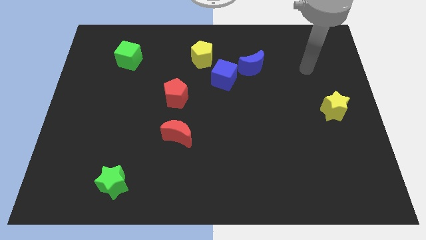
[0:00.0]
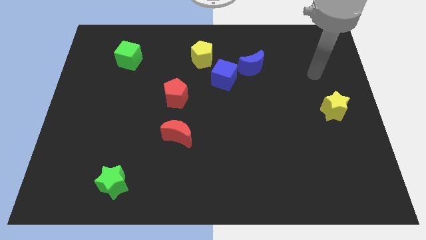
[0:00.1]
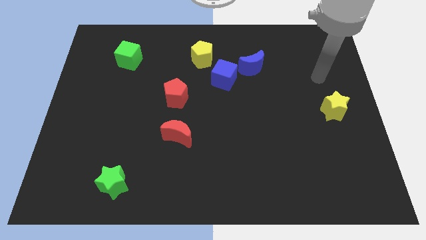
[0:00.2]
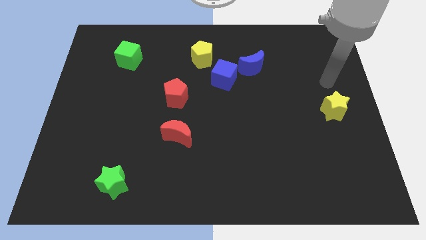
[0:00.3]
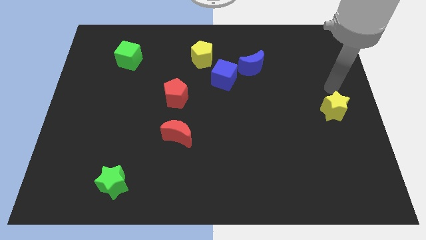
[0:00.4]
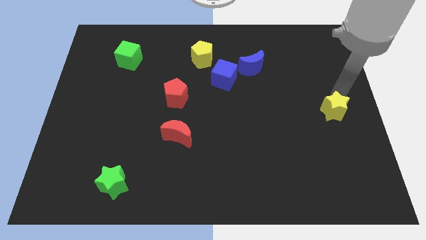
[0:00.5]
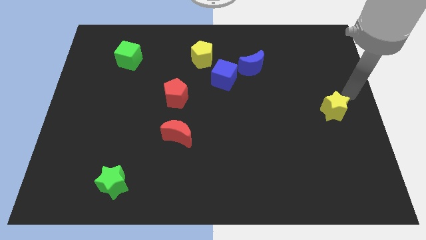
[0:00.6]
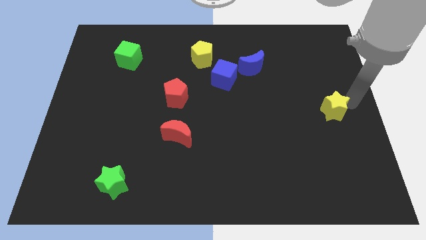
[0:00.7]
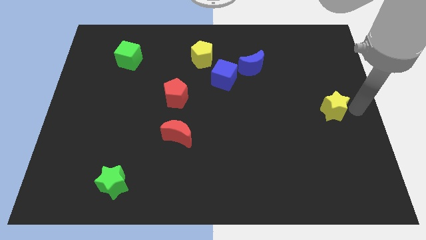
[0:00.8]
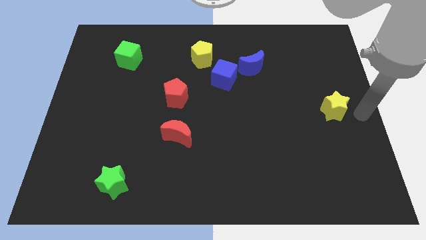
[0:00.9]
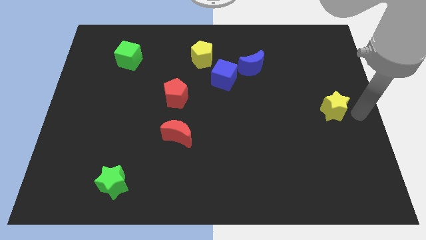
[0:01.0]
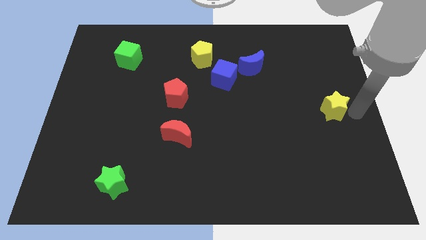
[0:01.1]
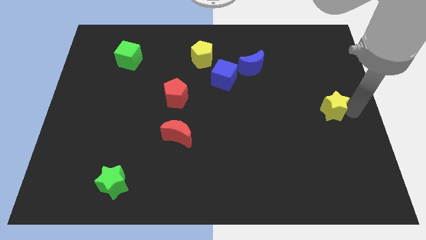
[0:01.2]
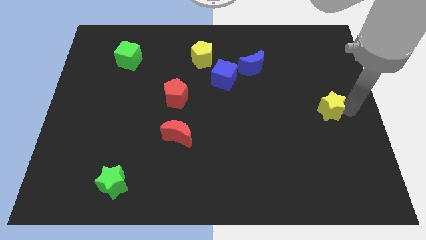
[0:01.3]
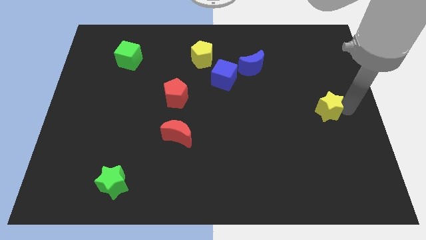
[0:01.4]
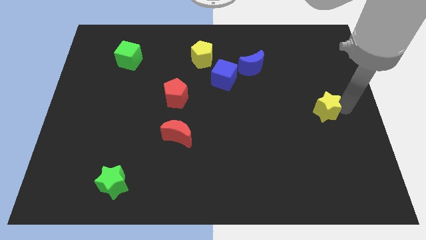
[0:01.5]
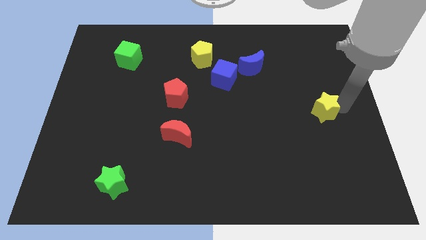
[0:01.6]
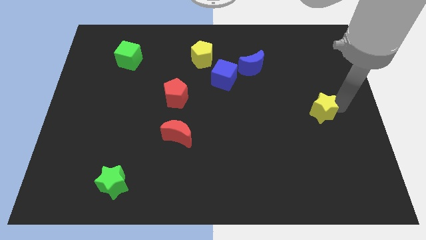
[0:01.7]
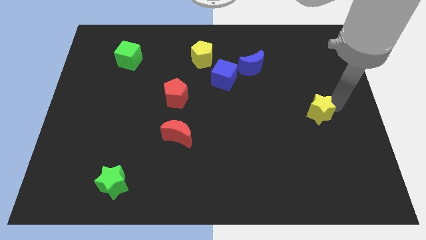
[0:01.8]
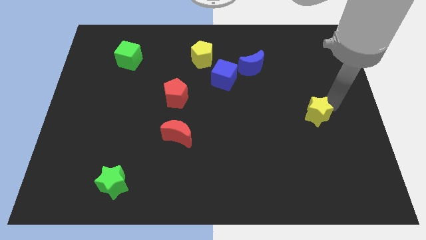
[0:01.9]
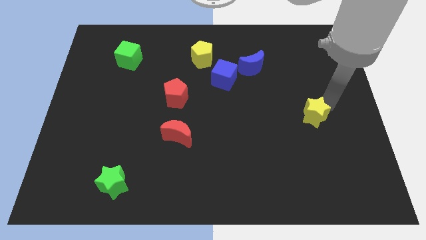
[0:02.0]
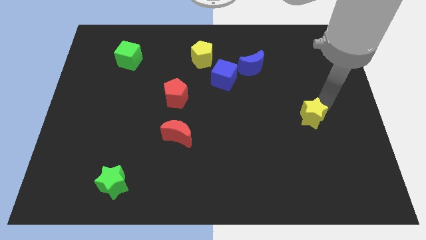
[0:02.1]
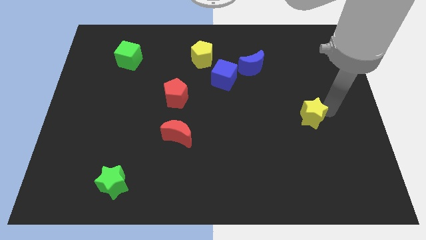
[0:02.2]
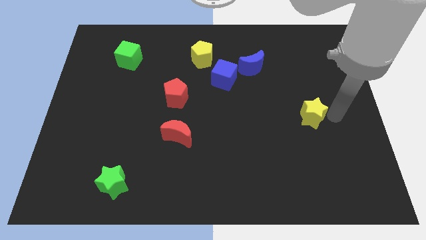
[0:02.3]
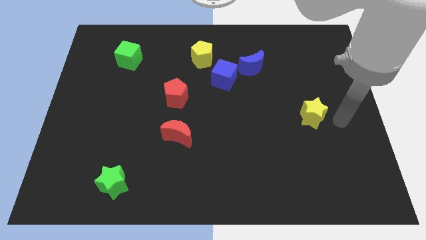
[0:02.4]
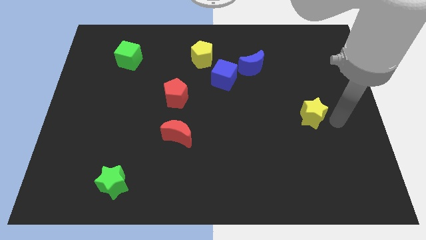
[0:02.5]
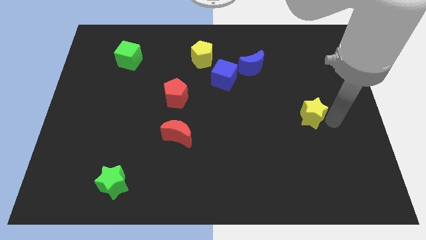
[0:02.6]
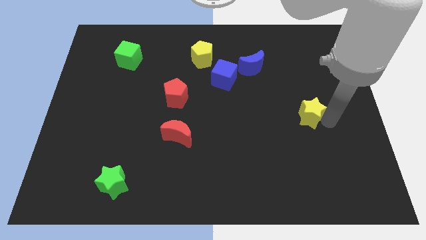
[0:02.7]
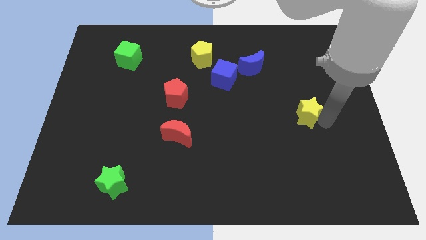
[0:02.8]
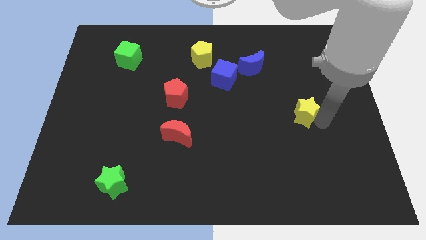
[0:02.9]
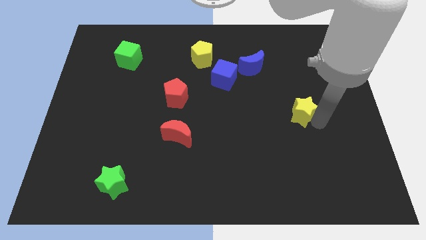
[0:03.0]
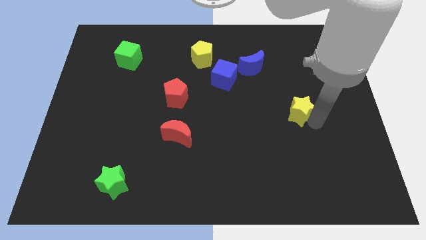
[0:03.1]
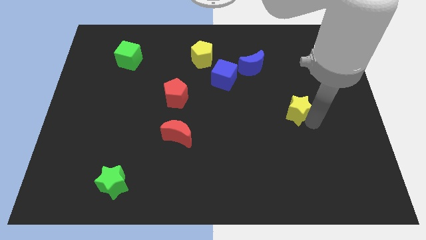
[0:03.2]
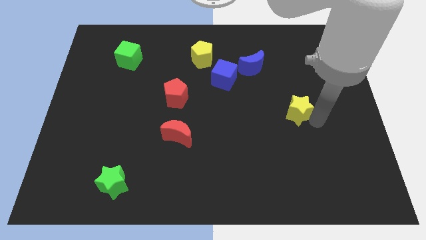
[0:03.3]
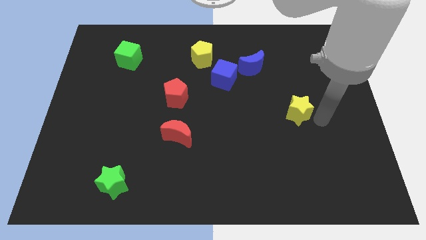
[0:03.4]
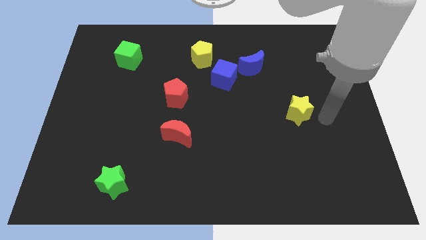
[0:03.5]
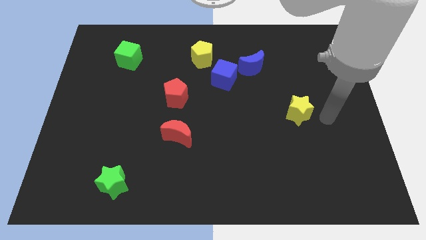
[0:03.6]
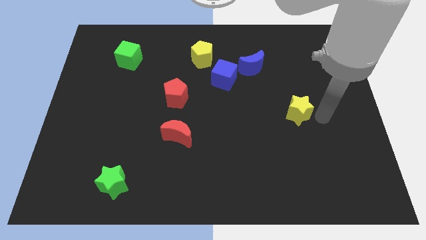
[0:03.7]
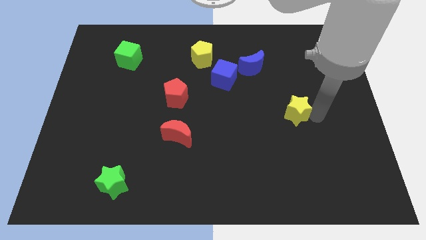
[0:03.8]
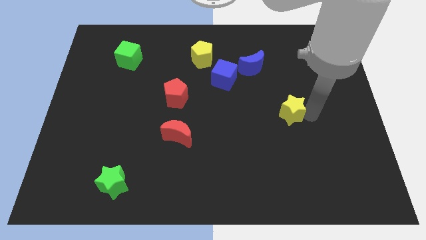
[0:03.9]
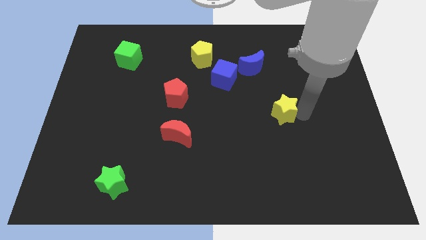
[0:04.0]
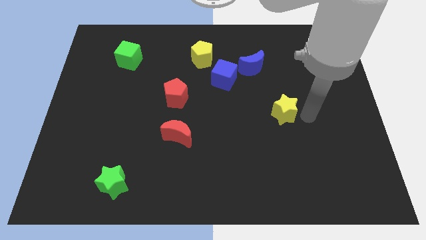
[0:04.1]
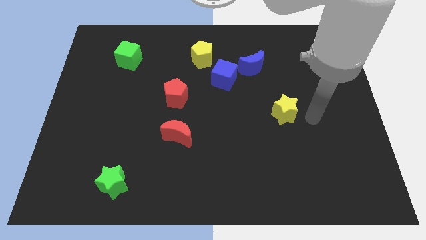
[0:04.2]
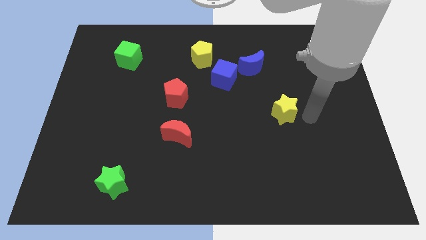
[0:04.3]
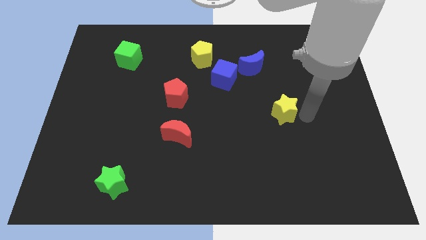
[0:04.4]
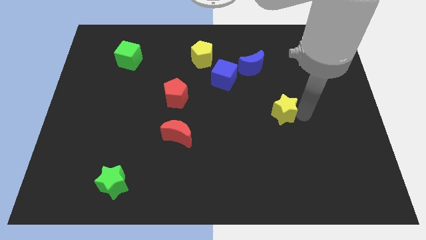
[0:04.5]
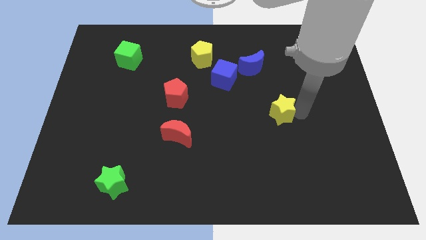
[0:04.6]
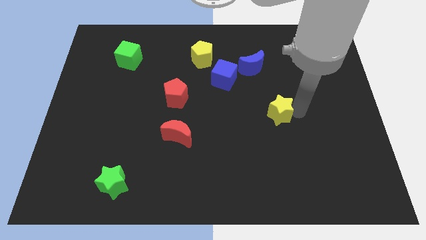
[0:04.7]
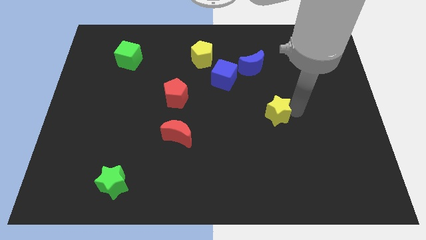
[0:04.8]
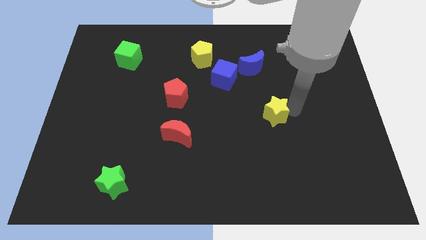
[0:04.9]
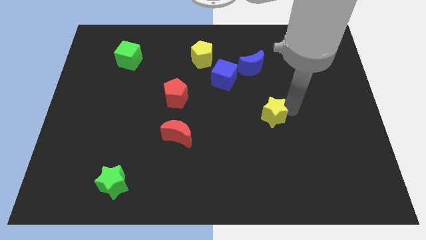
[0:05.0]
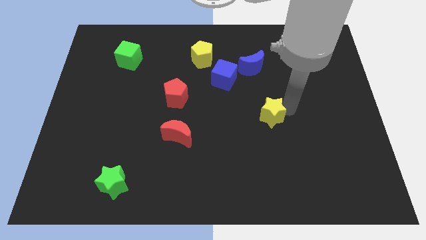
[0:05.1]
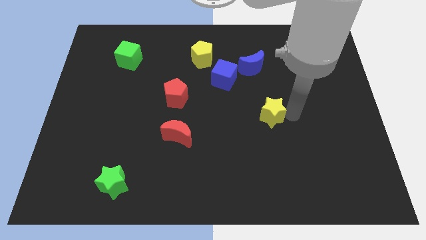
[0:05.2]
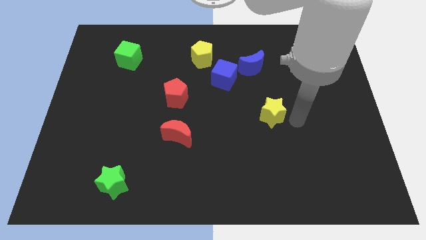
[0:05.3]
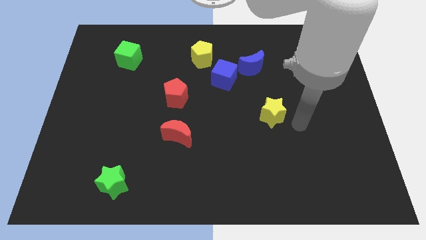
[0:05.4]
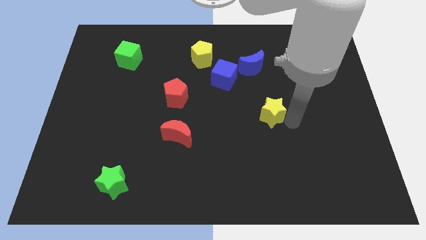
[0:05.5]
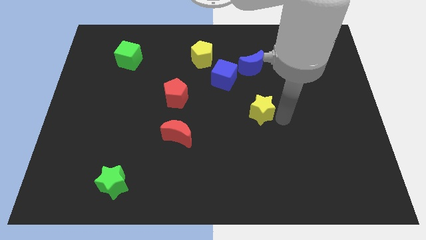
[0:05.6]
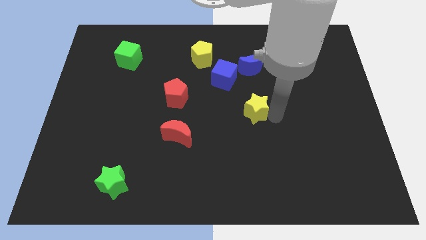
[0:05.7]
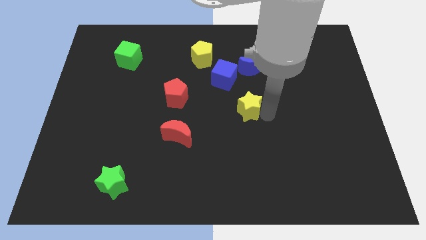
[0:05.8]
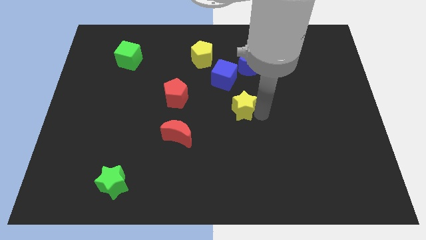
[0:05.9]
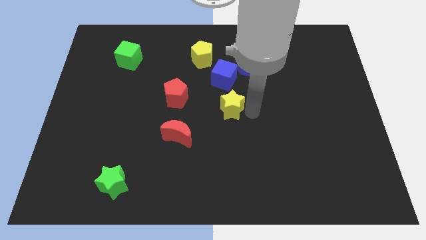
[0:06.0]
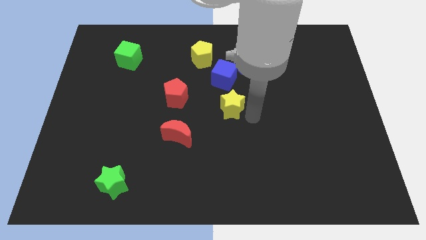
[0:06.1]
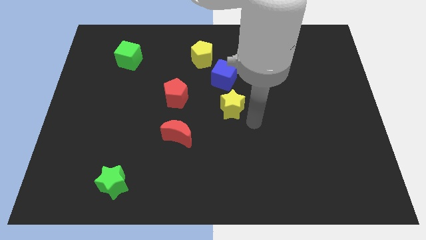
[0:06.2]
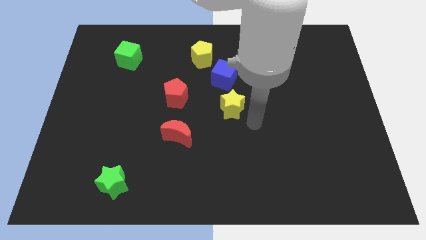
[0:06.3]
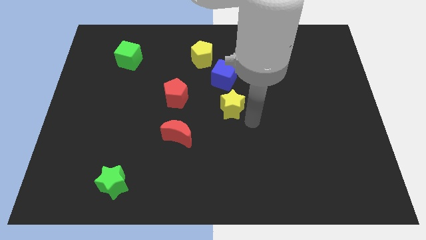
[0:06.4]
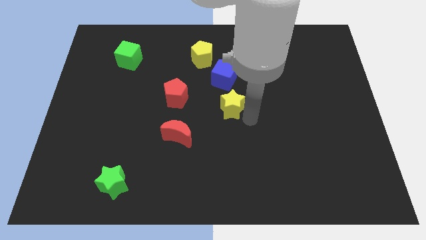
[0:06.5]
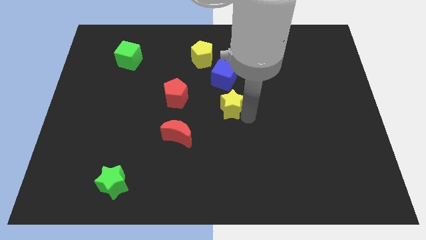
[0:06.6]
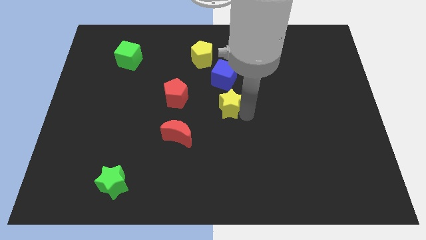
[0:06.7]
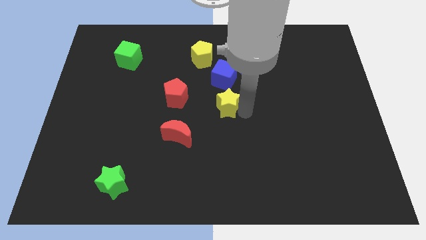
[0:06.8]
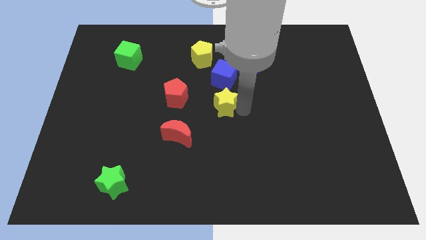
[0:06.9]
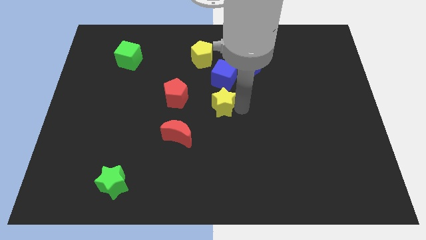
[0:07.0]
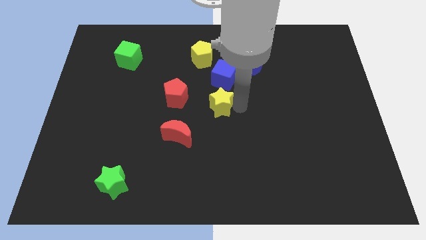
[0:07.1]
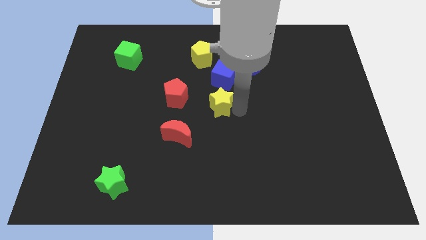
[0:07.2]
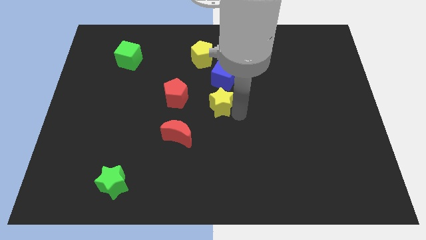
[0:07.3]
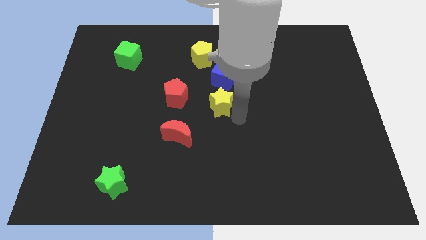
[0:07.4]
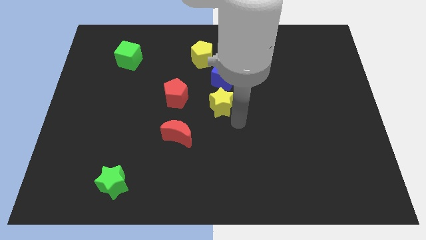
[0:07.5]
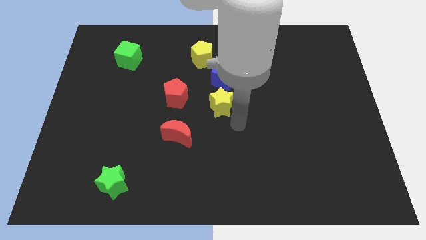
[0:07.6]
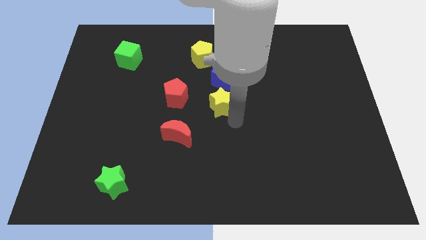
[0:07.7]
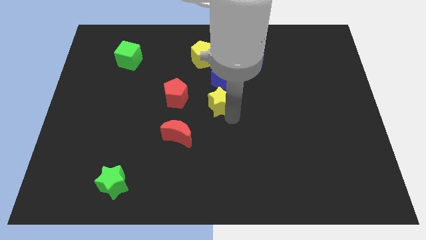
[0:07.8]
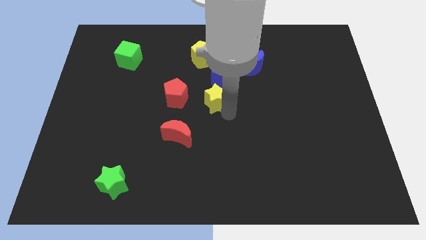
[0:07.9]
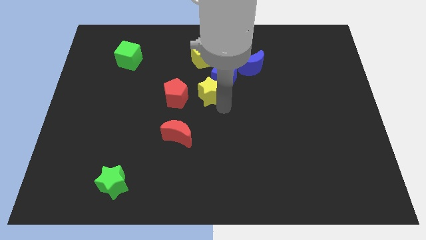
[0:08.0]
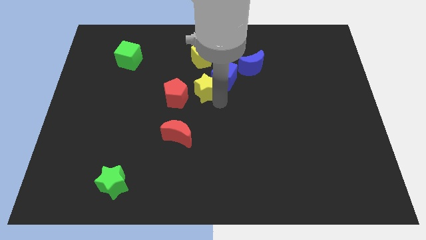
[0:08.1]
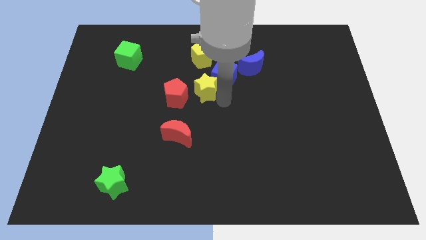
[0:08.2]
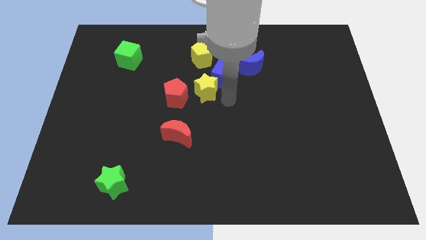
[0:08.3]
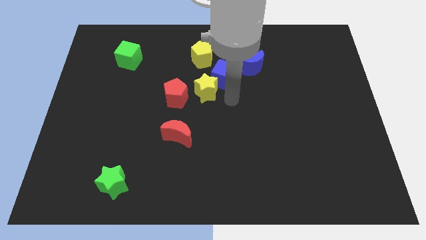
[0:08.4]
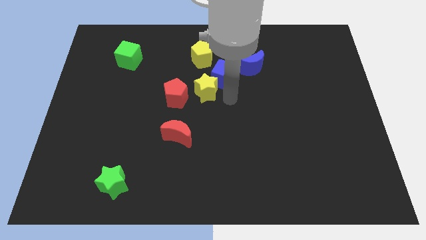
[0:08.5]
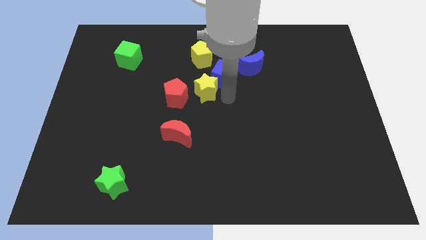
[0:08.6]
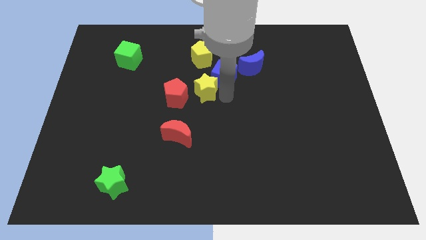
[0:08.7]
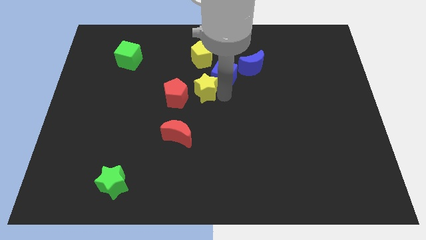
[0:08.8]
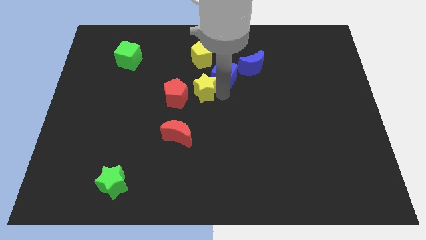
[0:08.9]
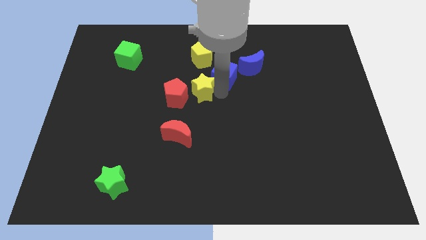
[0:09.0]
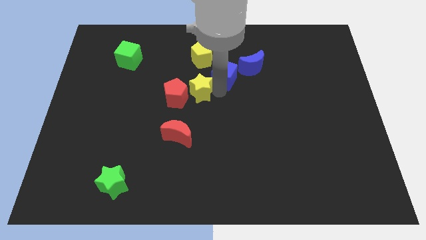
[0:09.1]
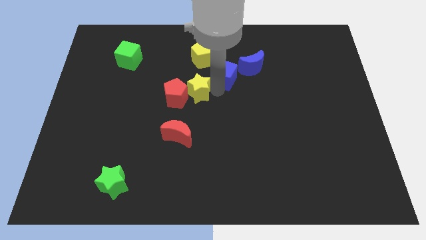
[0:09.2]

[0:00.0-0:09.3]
push the yellow star to the top of the red moon
